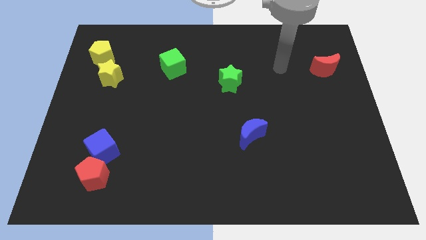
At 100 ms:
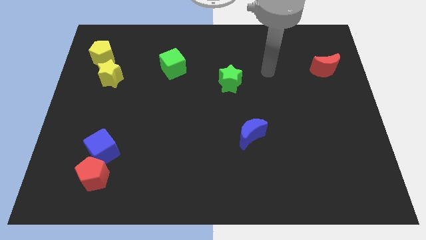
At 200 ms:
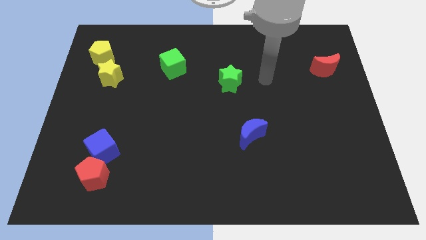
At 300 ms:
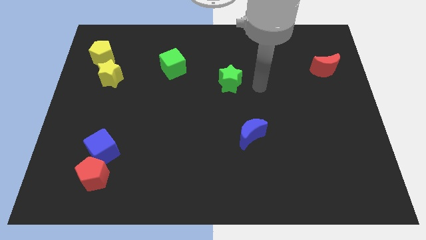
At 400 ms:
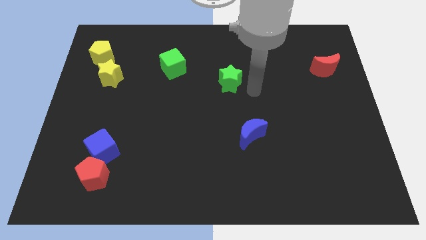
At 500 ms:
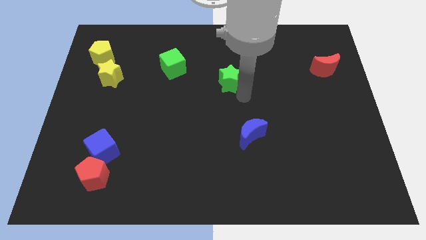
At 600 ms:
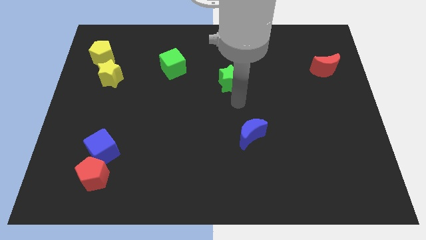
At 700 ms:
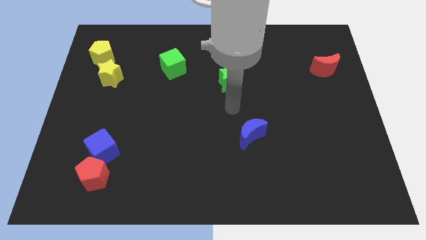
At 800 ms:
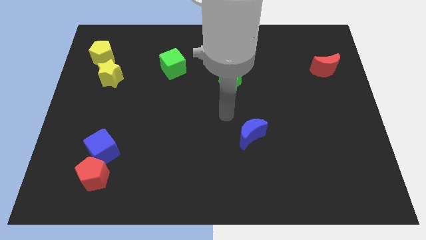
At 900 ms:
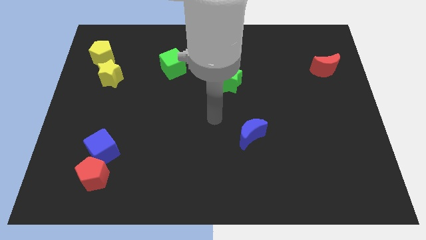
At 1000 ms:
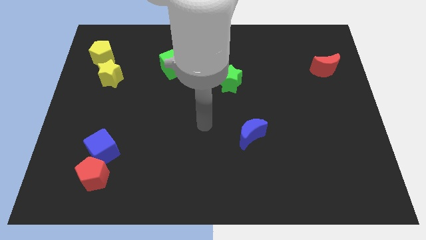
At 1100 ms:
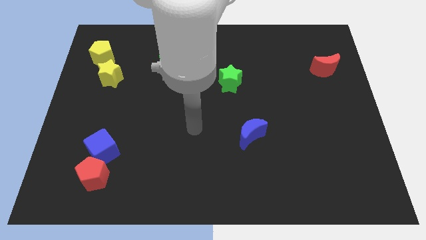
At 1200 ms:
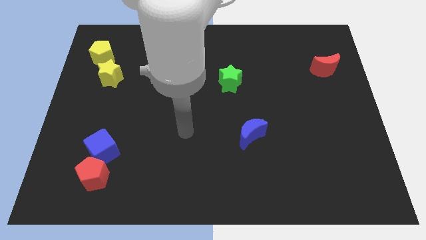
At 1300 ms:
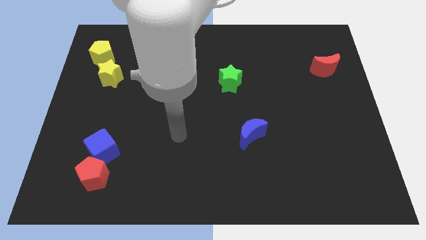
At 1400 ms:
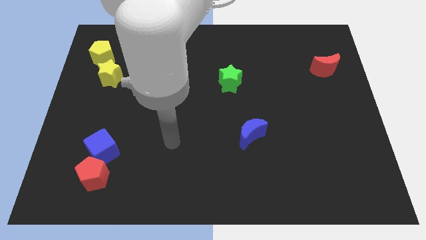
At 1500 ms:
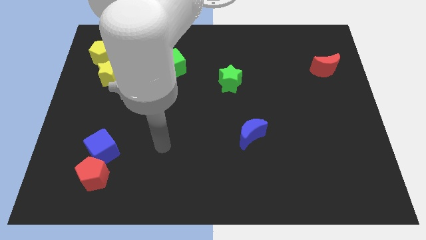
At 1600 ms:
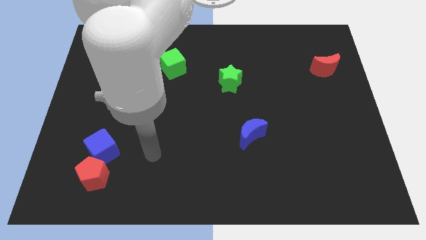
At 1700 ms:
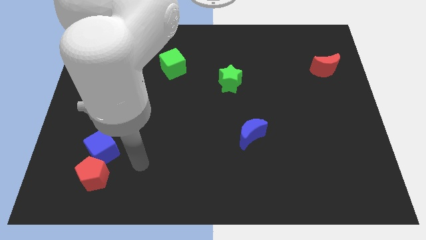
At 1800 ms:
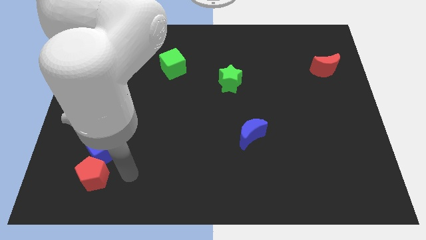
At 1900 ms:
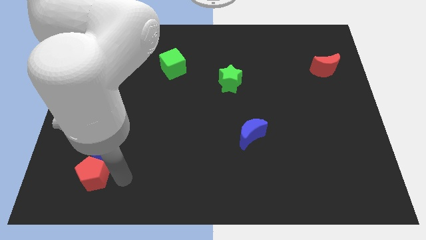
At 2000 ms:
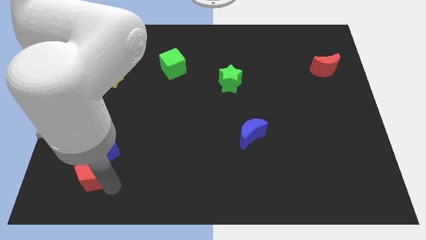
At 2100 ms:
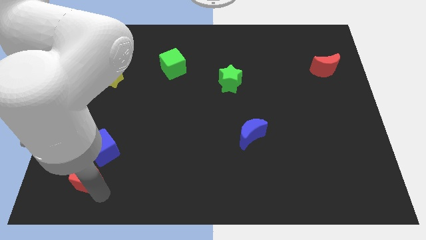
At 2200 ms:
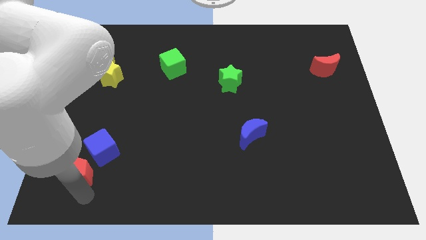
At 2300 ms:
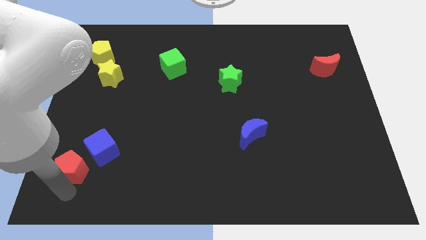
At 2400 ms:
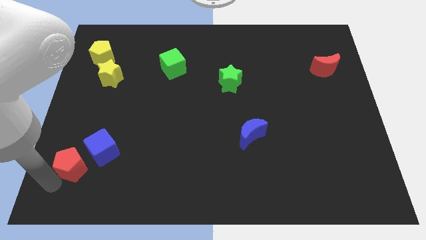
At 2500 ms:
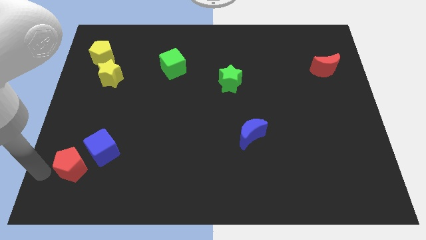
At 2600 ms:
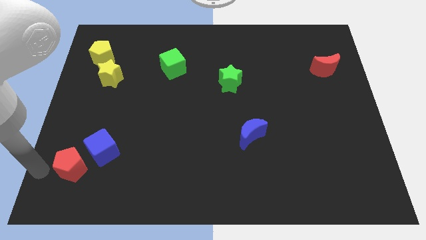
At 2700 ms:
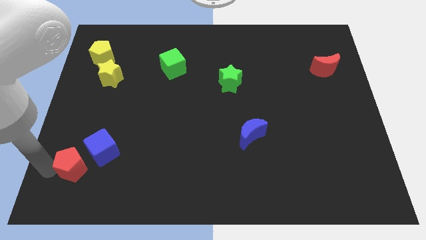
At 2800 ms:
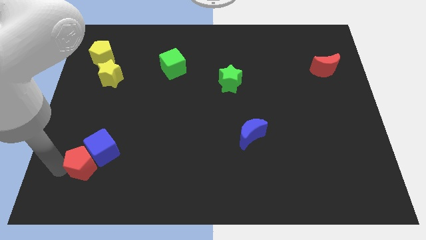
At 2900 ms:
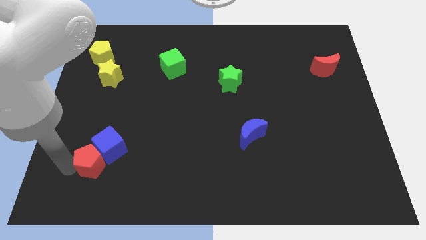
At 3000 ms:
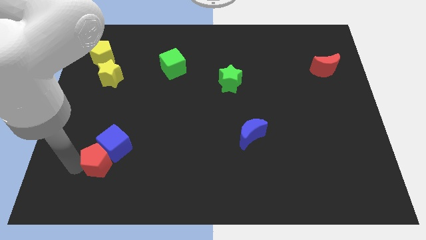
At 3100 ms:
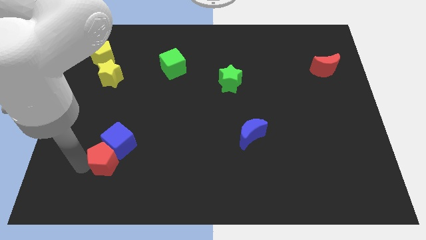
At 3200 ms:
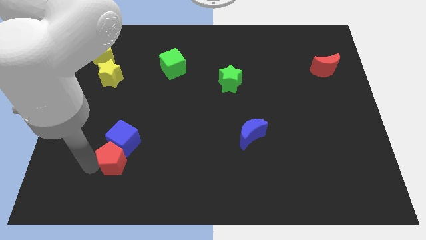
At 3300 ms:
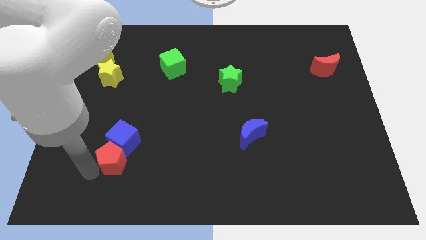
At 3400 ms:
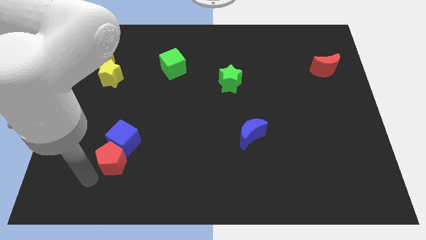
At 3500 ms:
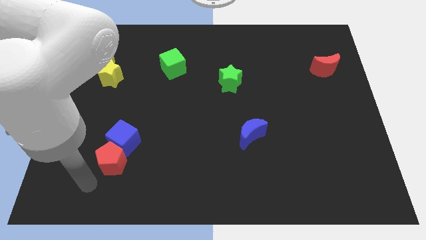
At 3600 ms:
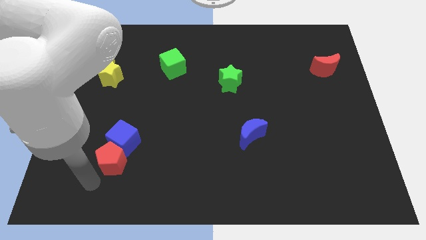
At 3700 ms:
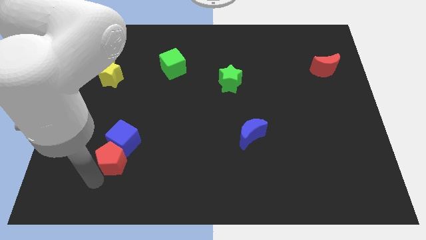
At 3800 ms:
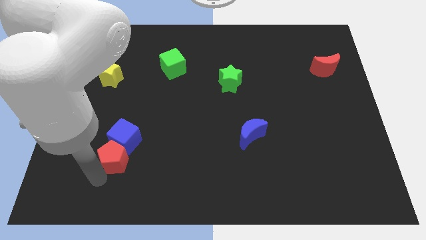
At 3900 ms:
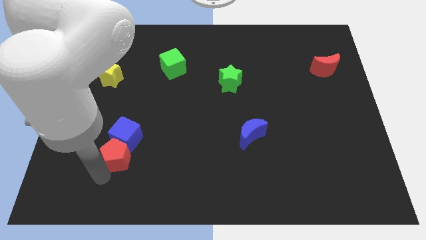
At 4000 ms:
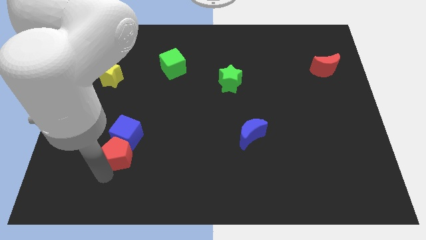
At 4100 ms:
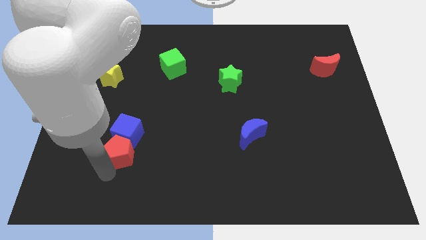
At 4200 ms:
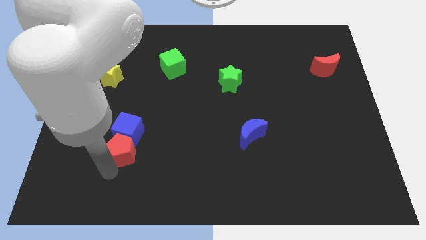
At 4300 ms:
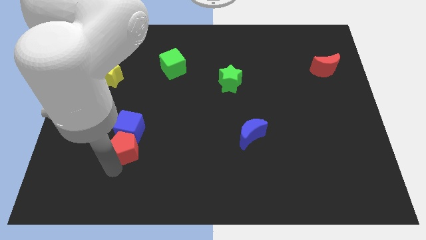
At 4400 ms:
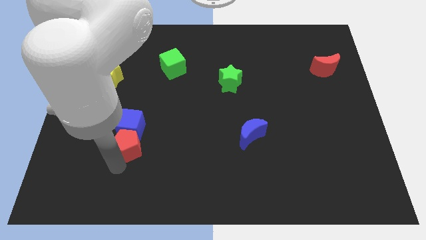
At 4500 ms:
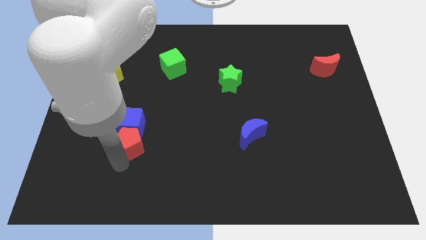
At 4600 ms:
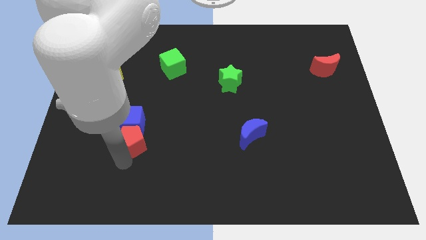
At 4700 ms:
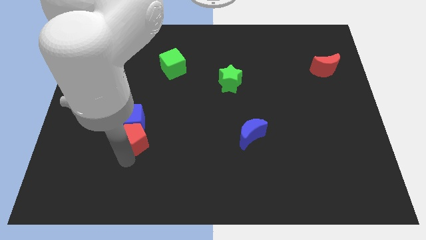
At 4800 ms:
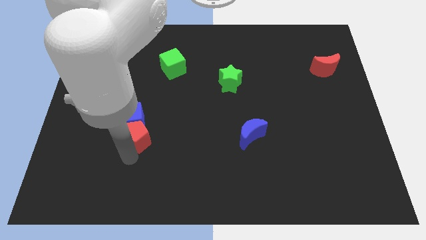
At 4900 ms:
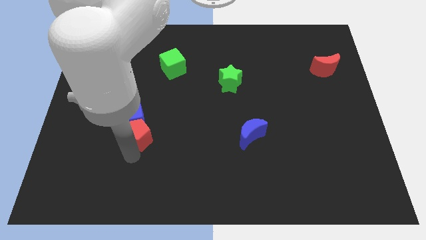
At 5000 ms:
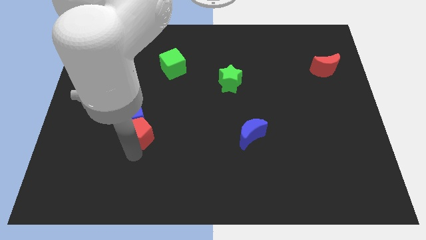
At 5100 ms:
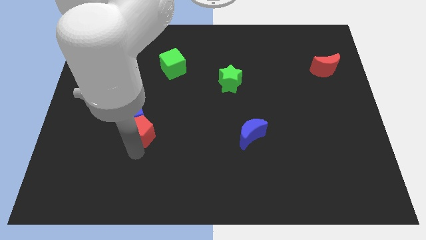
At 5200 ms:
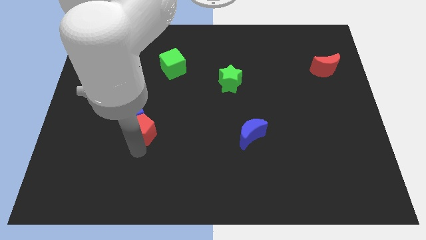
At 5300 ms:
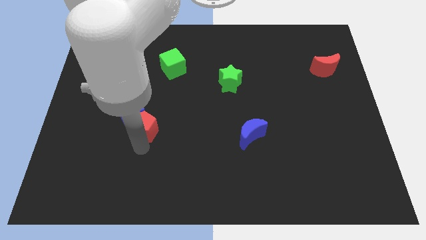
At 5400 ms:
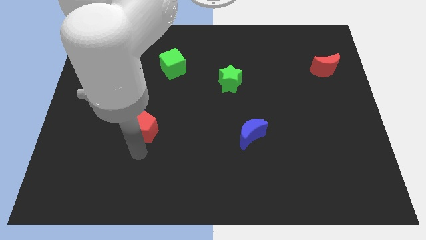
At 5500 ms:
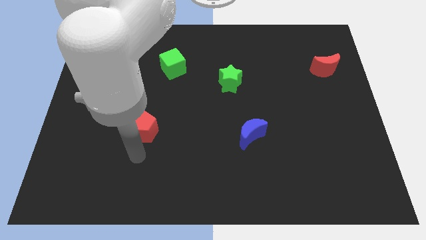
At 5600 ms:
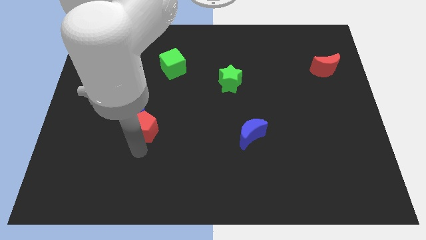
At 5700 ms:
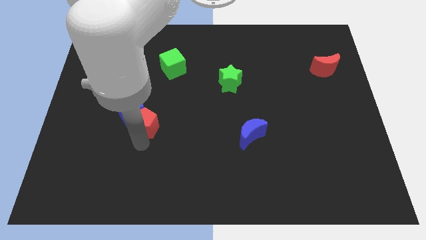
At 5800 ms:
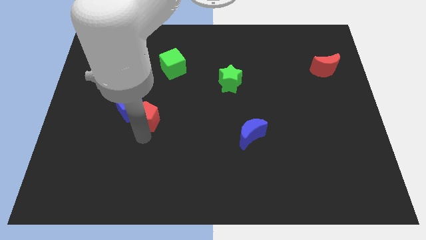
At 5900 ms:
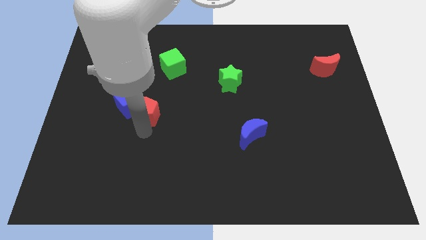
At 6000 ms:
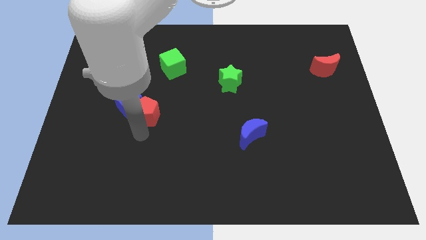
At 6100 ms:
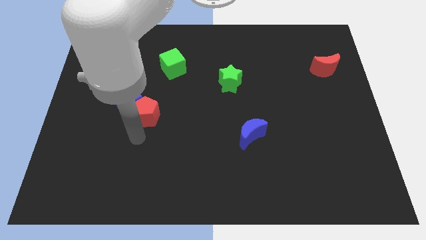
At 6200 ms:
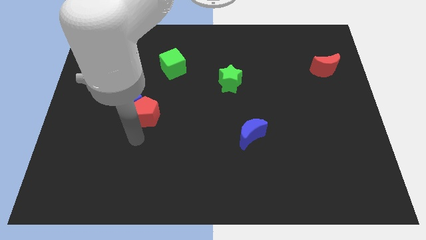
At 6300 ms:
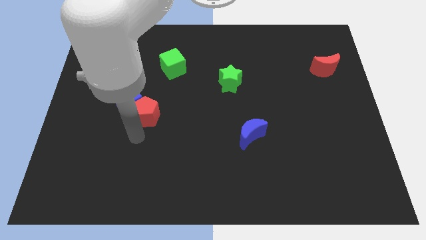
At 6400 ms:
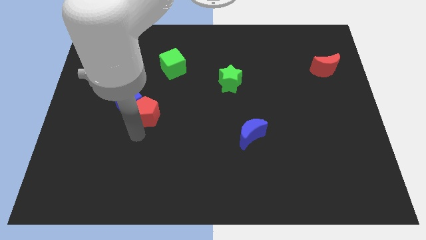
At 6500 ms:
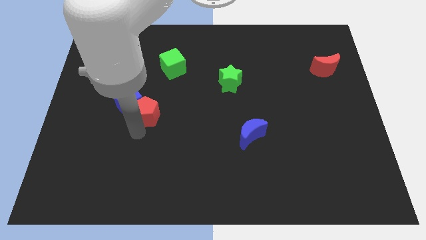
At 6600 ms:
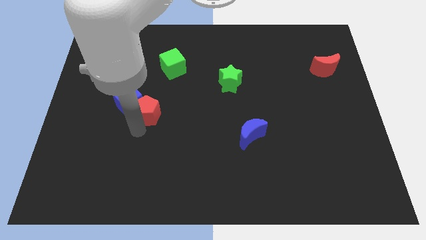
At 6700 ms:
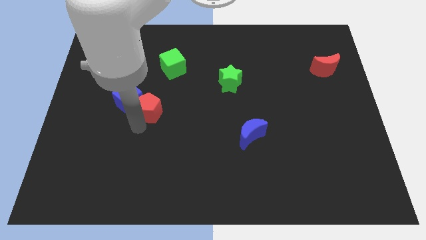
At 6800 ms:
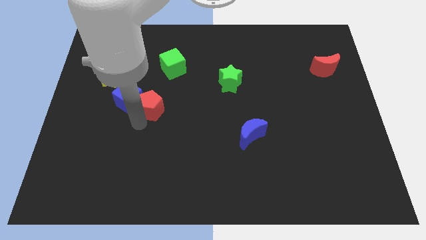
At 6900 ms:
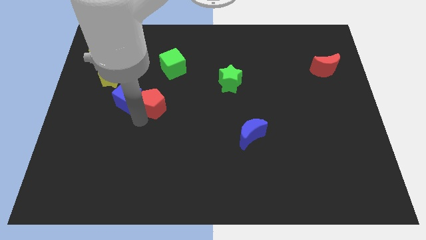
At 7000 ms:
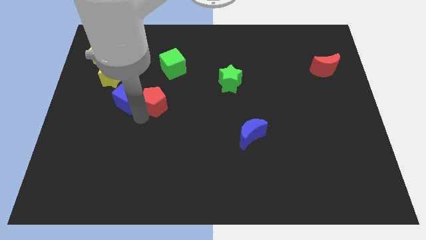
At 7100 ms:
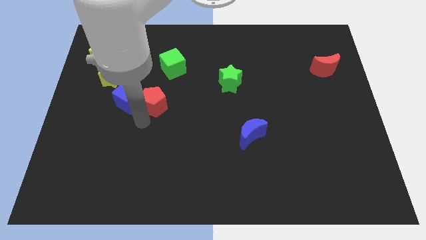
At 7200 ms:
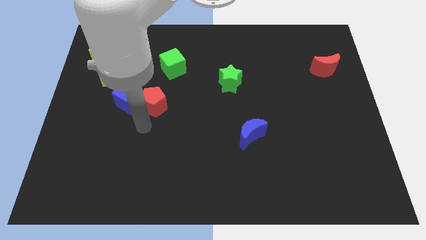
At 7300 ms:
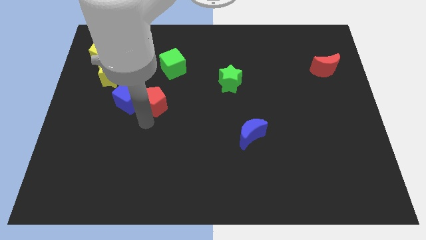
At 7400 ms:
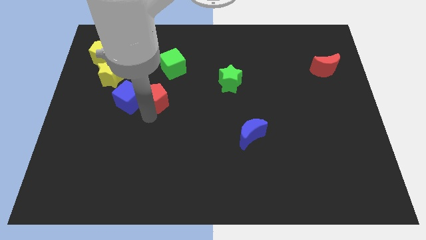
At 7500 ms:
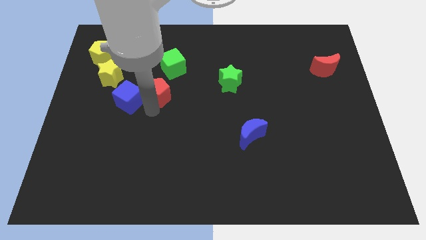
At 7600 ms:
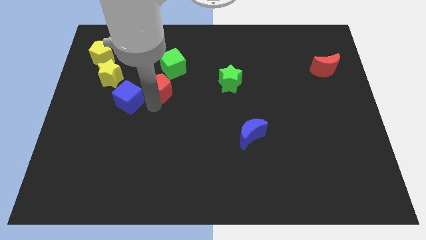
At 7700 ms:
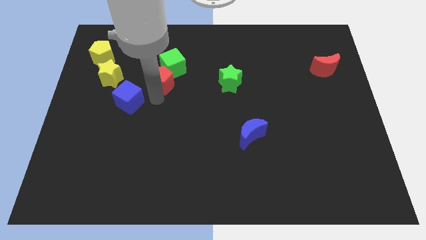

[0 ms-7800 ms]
move the red pentagon to the green cube
